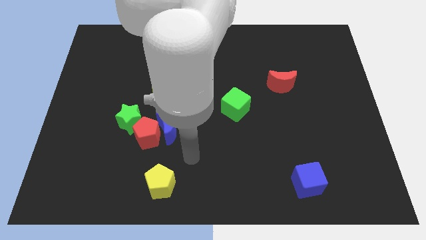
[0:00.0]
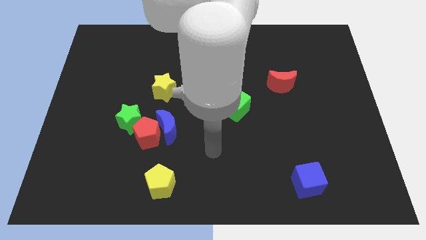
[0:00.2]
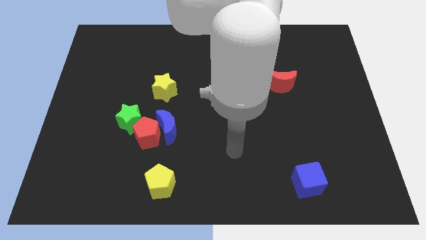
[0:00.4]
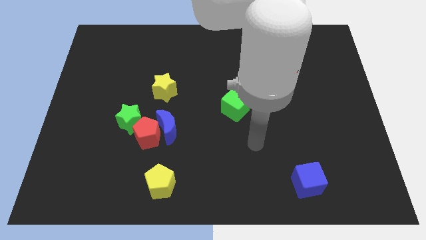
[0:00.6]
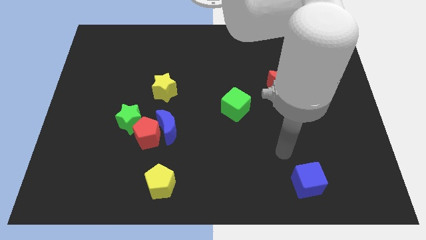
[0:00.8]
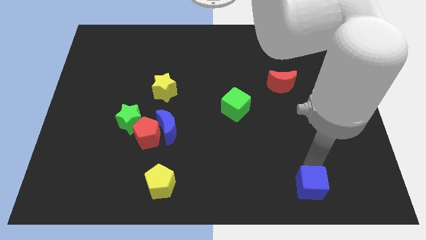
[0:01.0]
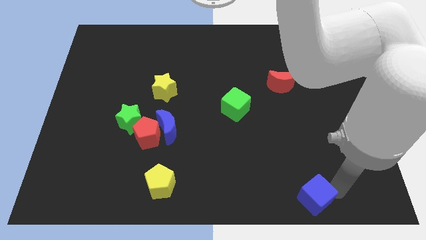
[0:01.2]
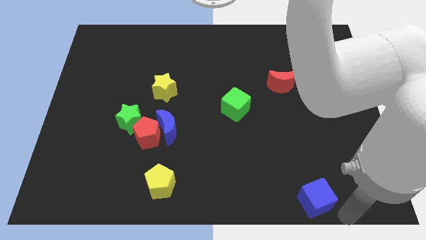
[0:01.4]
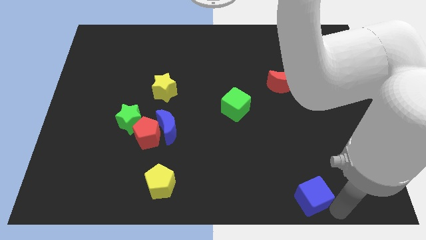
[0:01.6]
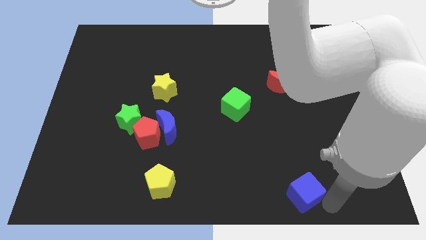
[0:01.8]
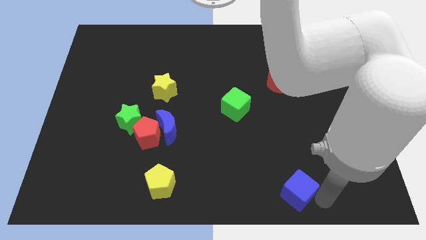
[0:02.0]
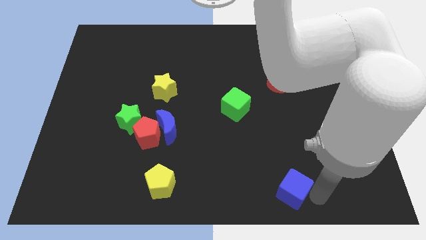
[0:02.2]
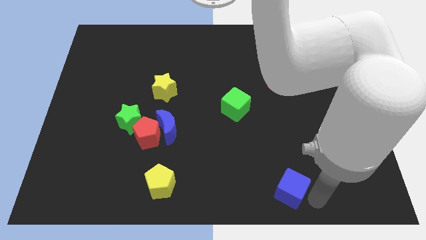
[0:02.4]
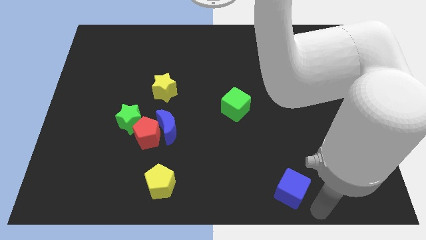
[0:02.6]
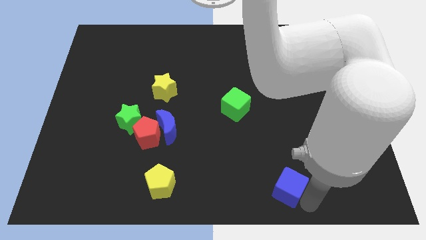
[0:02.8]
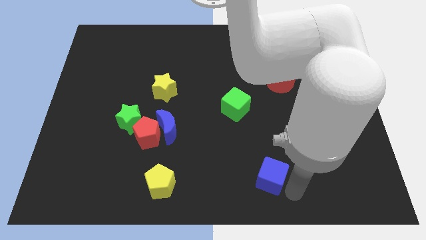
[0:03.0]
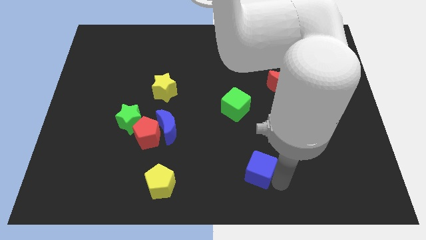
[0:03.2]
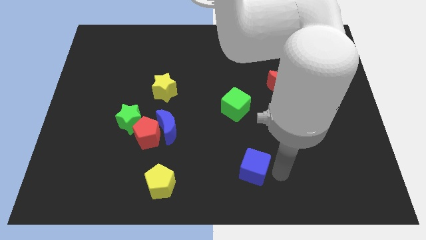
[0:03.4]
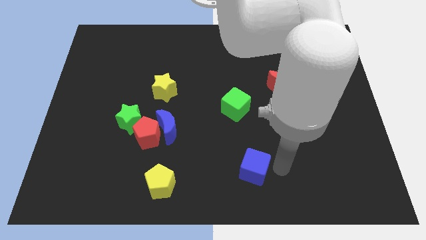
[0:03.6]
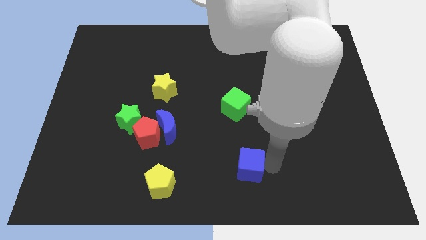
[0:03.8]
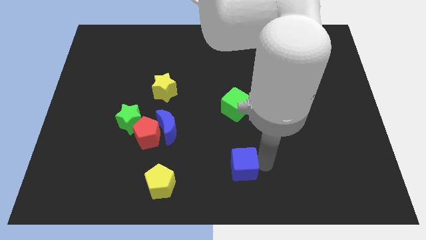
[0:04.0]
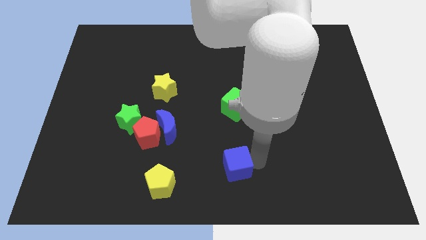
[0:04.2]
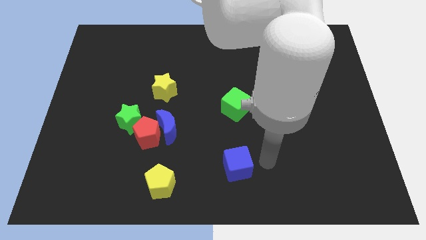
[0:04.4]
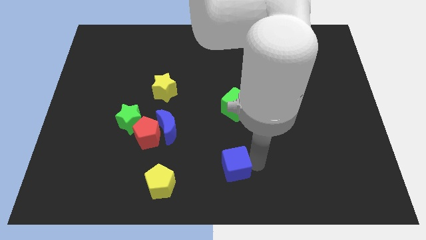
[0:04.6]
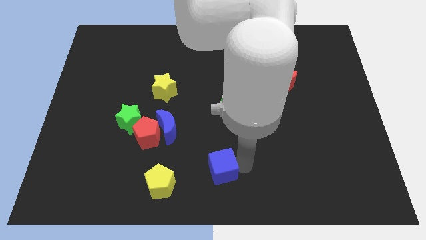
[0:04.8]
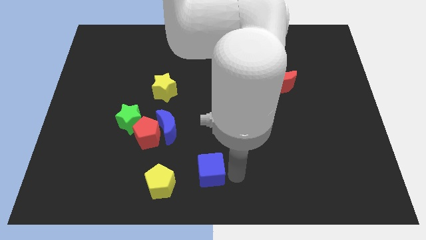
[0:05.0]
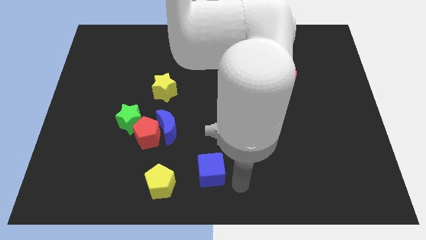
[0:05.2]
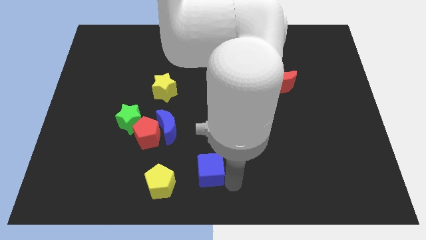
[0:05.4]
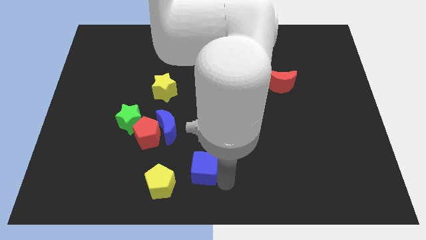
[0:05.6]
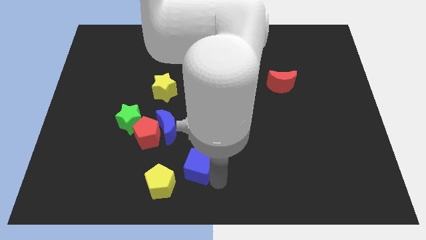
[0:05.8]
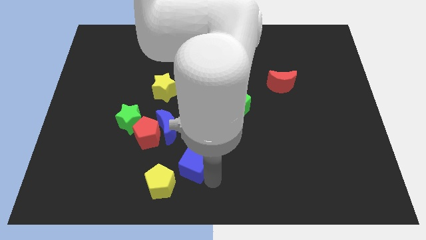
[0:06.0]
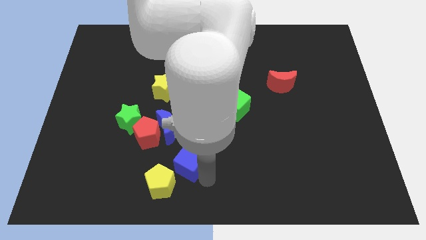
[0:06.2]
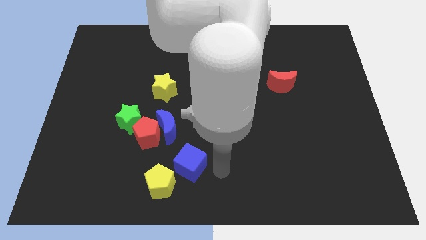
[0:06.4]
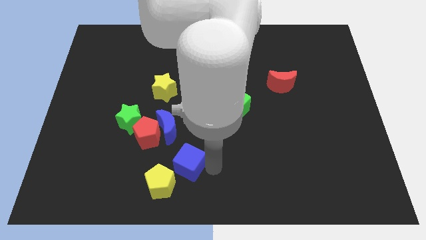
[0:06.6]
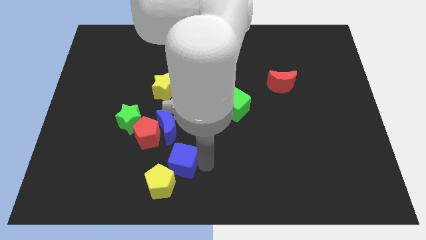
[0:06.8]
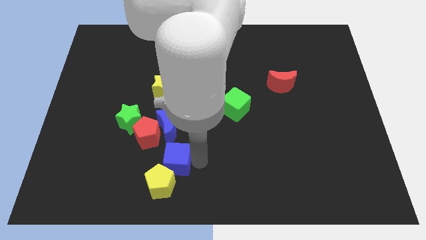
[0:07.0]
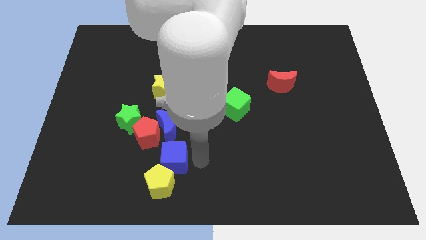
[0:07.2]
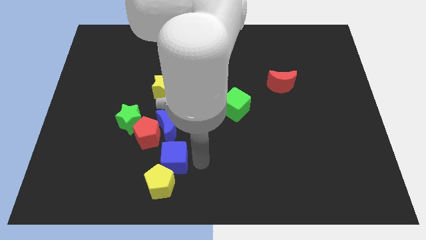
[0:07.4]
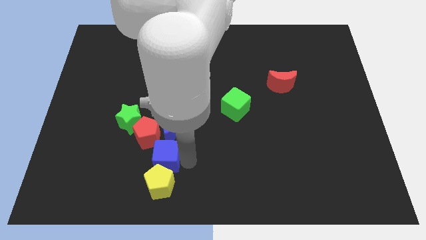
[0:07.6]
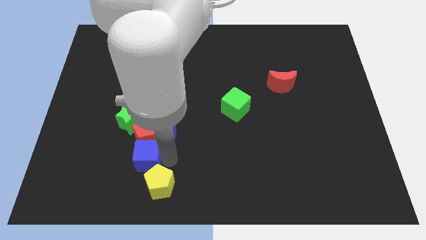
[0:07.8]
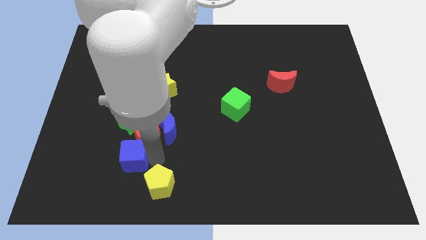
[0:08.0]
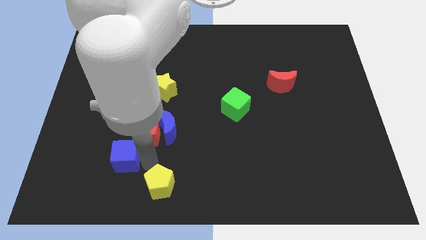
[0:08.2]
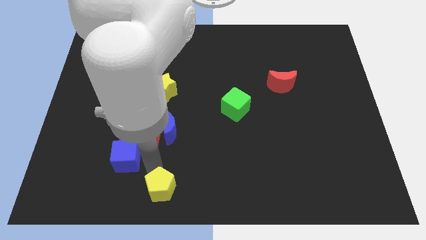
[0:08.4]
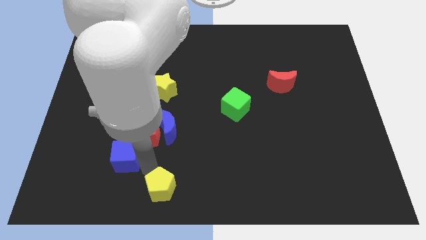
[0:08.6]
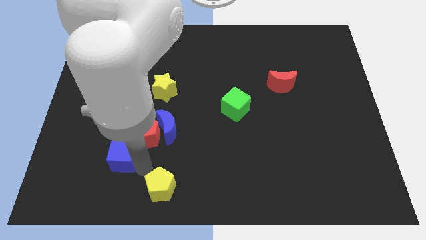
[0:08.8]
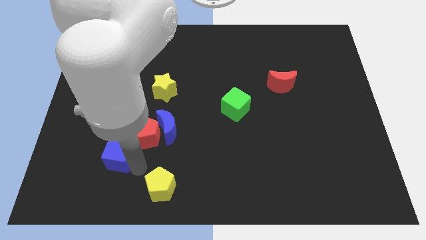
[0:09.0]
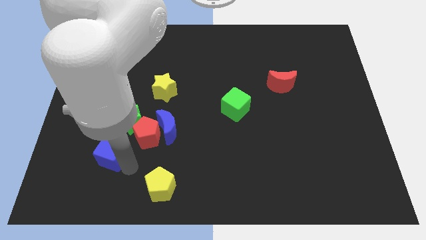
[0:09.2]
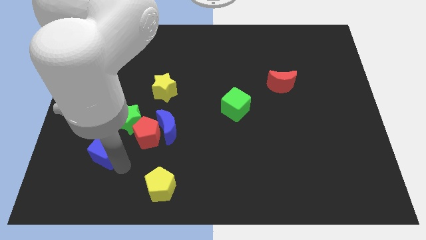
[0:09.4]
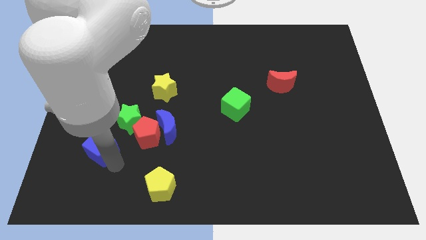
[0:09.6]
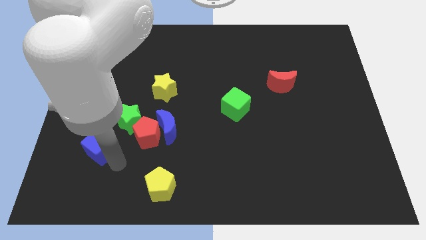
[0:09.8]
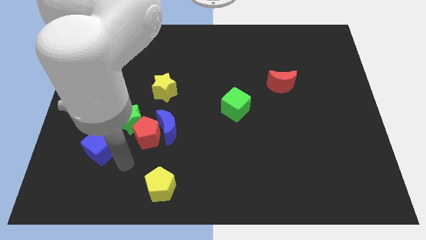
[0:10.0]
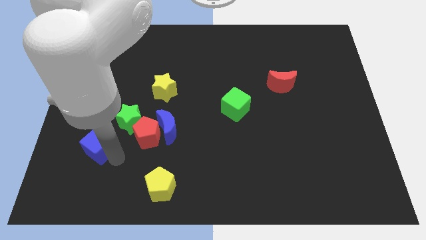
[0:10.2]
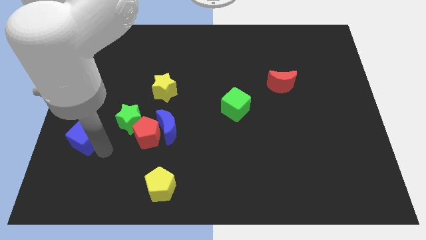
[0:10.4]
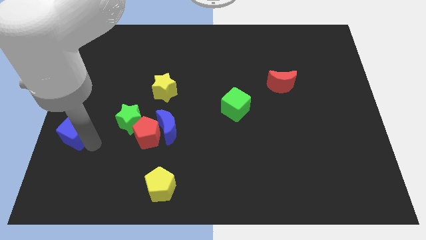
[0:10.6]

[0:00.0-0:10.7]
put the blue cube to the left side of the board

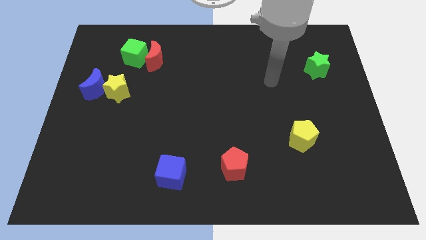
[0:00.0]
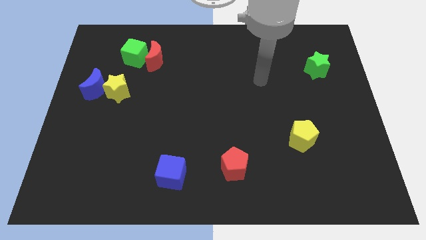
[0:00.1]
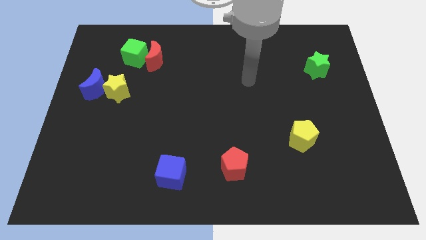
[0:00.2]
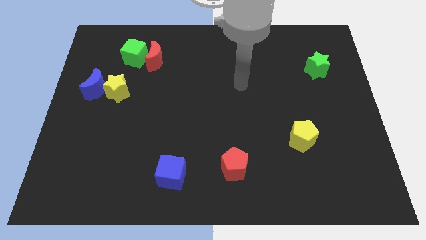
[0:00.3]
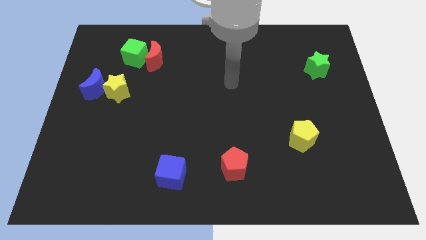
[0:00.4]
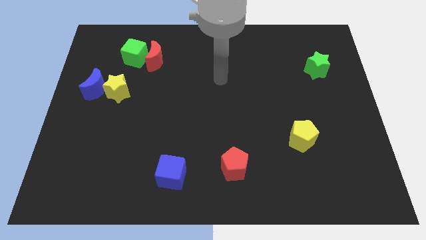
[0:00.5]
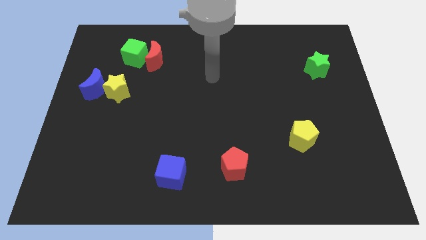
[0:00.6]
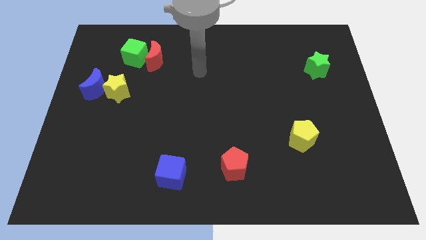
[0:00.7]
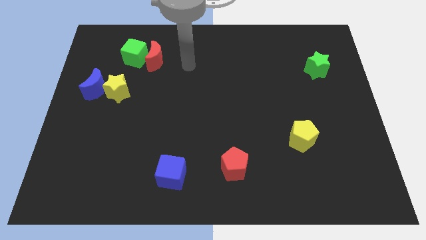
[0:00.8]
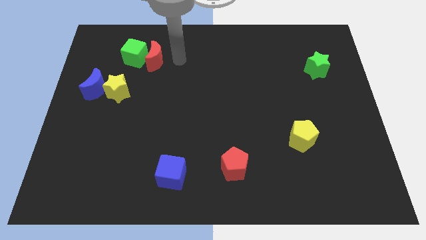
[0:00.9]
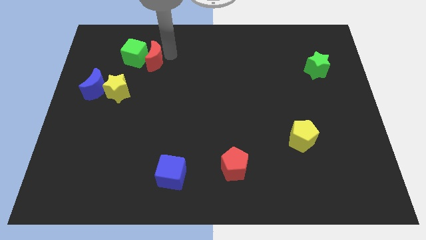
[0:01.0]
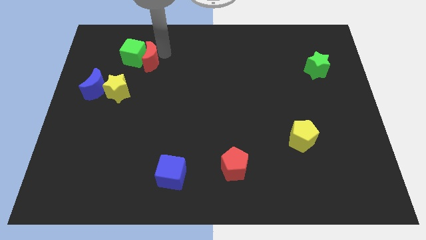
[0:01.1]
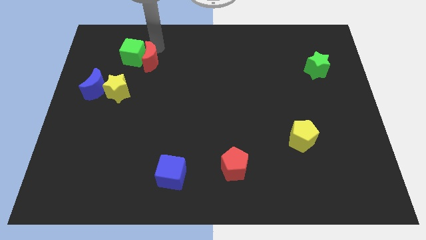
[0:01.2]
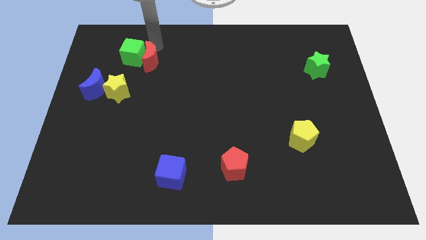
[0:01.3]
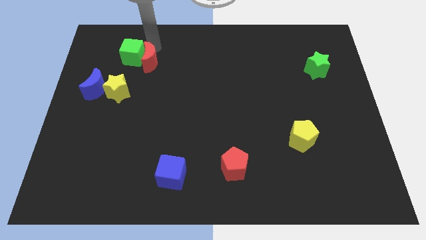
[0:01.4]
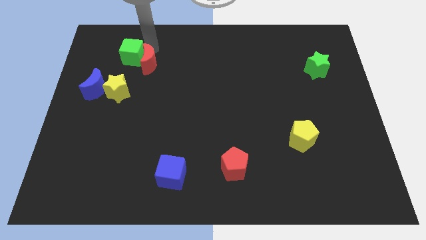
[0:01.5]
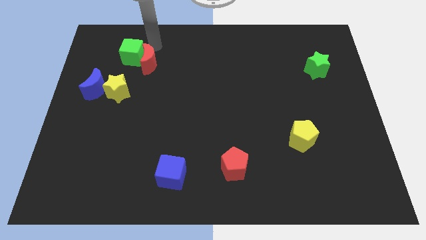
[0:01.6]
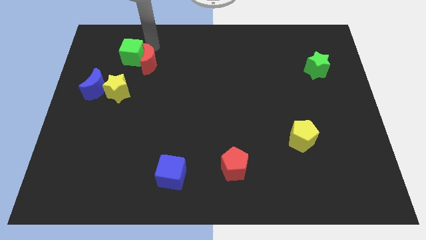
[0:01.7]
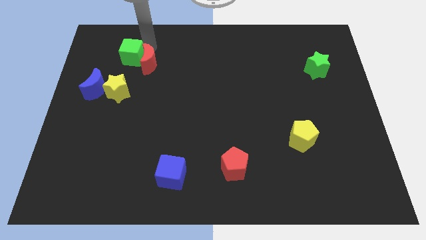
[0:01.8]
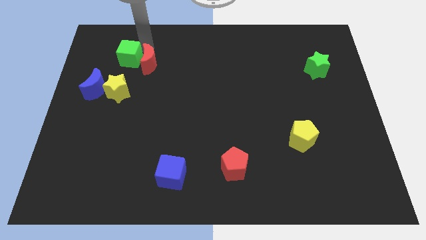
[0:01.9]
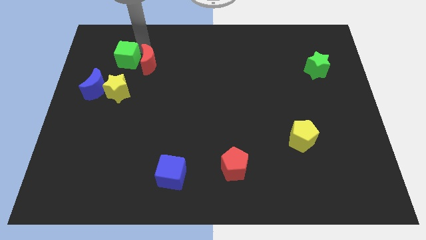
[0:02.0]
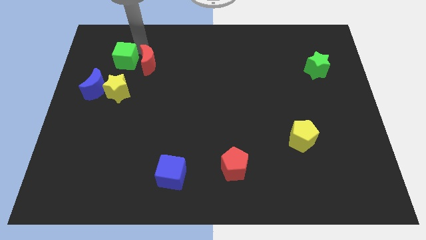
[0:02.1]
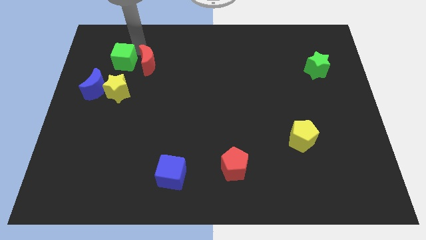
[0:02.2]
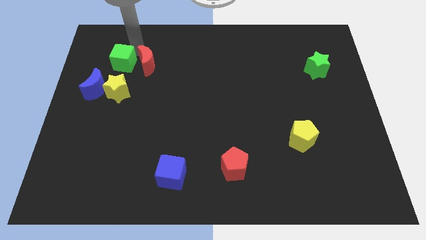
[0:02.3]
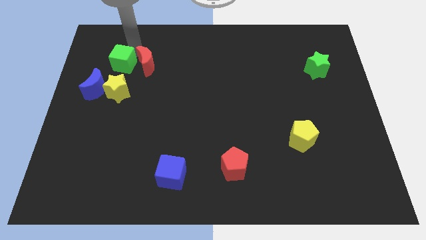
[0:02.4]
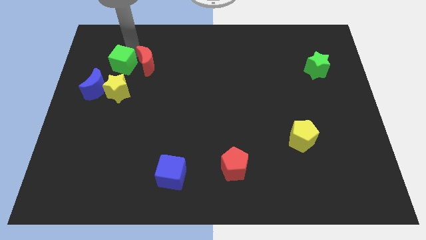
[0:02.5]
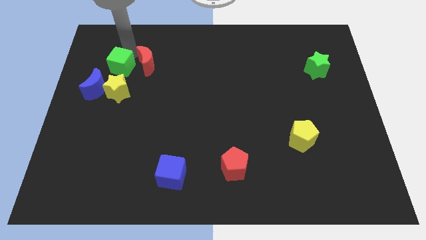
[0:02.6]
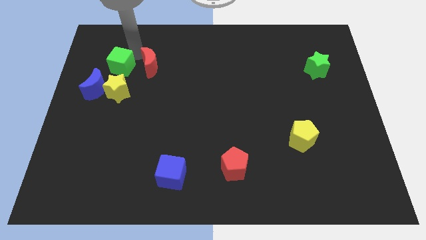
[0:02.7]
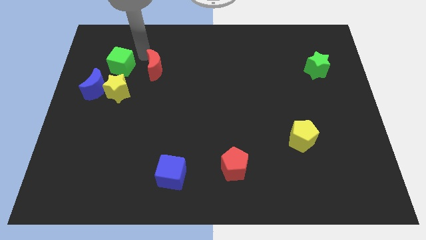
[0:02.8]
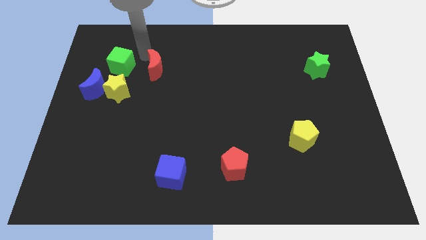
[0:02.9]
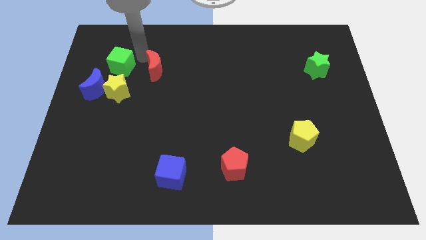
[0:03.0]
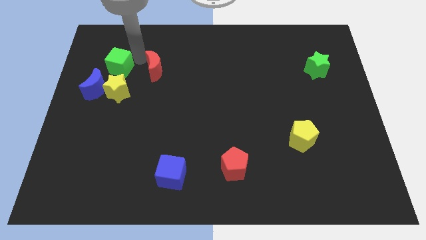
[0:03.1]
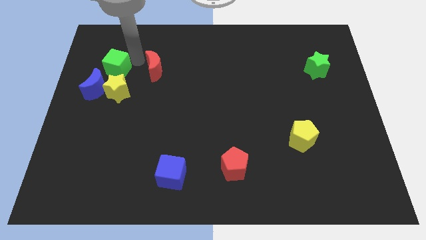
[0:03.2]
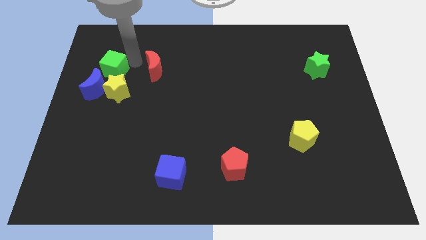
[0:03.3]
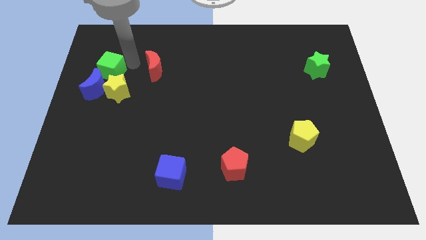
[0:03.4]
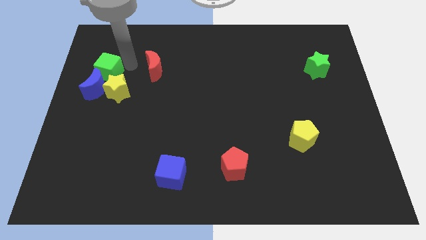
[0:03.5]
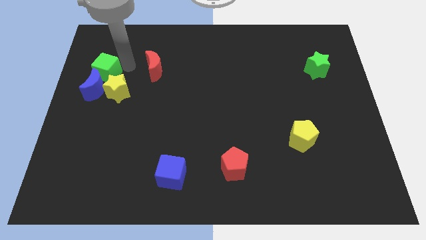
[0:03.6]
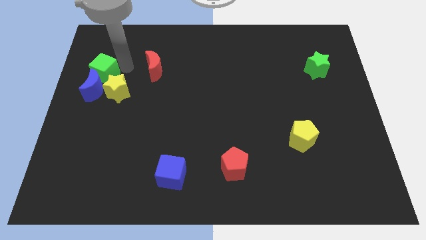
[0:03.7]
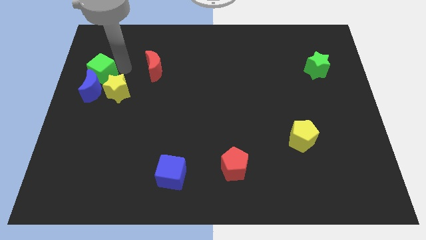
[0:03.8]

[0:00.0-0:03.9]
move the green cube to the left side
